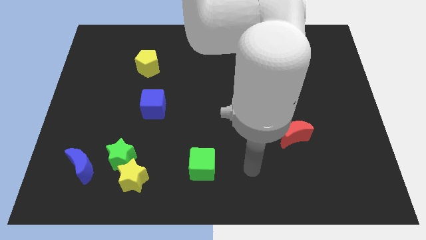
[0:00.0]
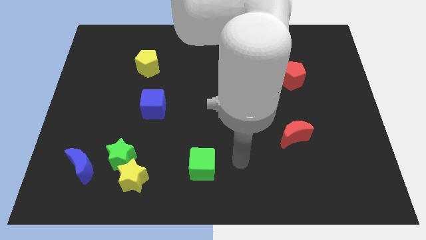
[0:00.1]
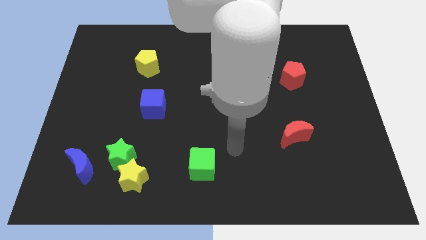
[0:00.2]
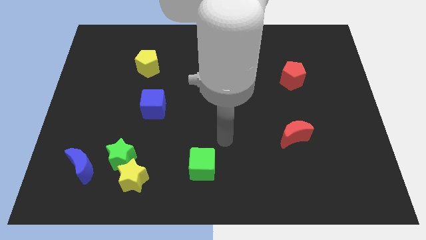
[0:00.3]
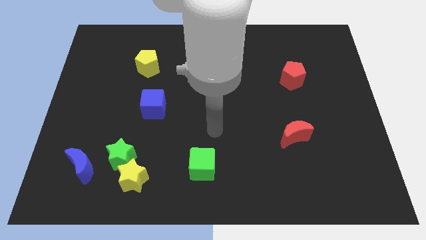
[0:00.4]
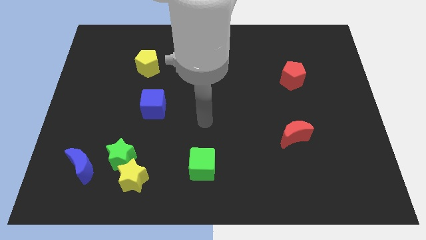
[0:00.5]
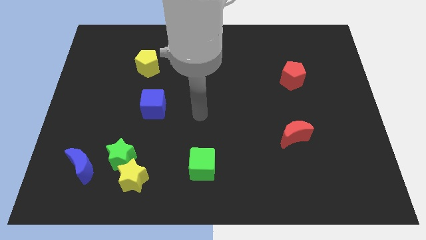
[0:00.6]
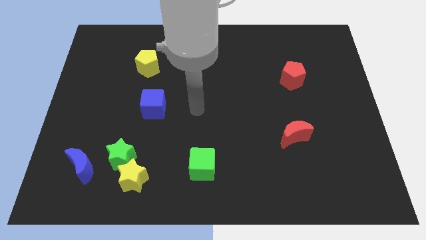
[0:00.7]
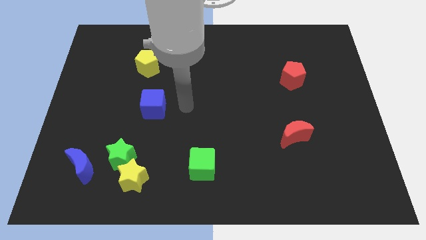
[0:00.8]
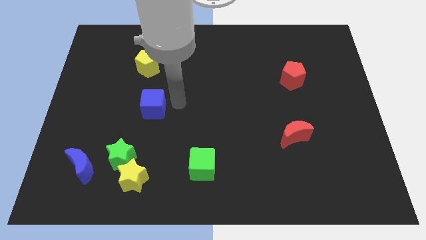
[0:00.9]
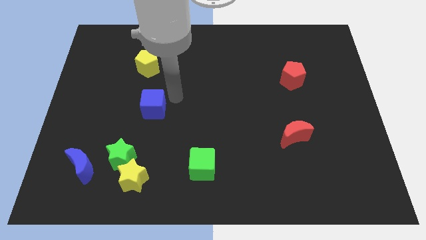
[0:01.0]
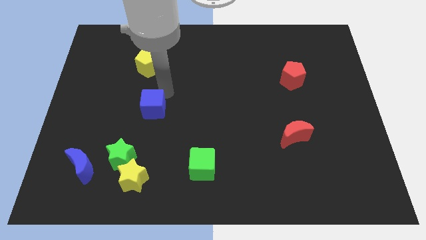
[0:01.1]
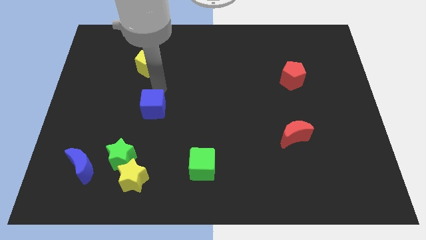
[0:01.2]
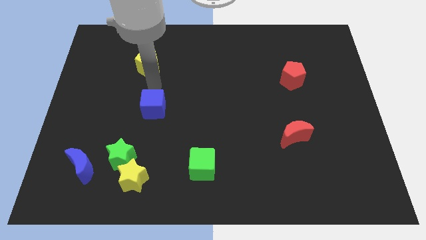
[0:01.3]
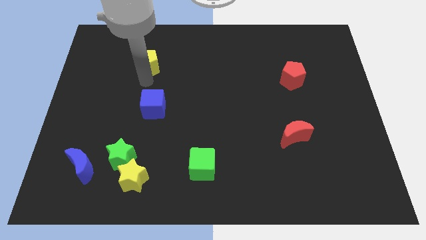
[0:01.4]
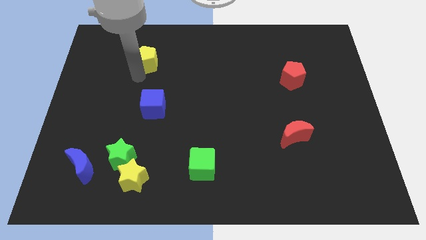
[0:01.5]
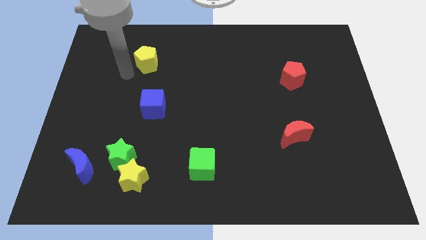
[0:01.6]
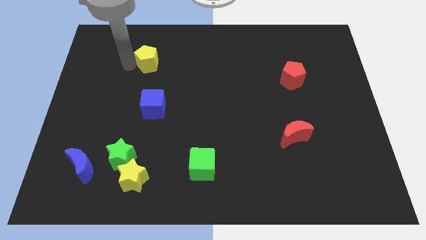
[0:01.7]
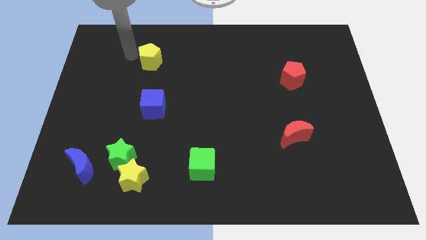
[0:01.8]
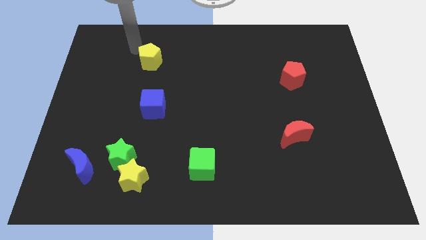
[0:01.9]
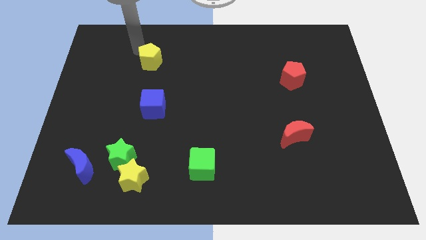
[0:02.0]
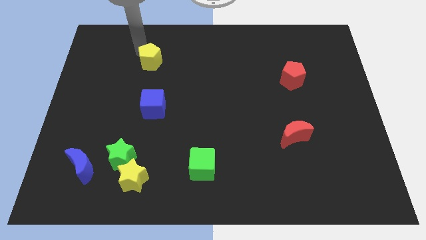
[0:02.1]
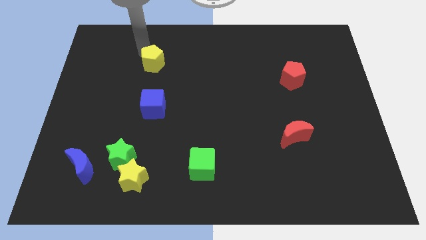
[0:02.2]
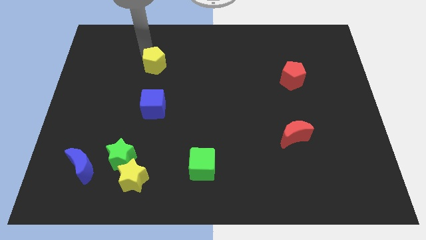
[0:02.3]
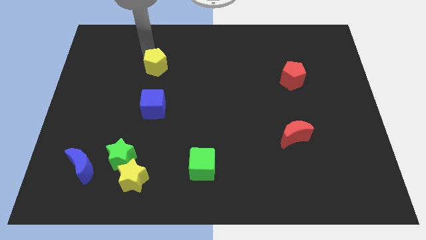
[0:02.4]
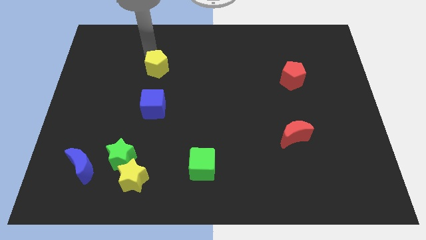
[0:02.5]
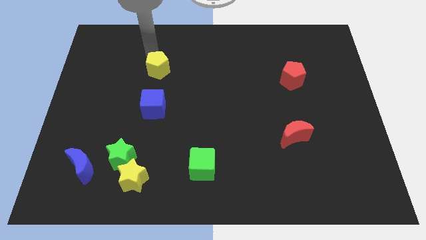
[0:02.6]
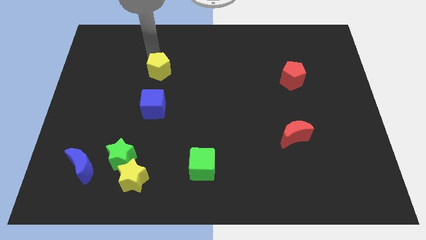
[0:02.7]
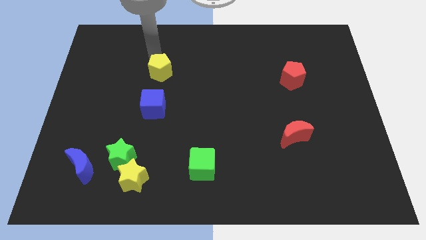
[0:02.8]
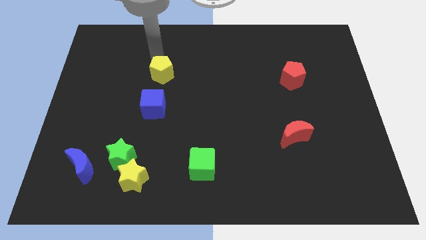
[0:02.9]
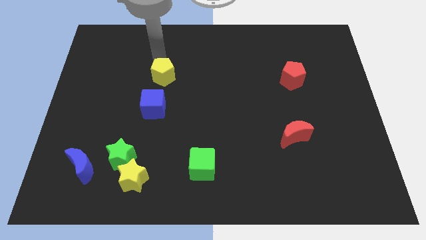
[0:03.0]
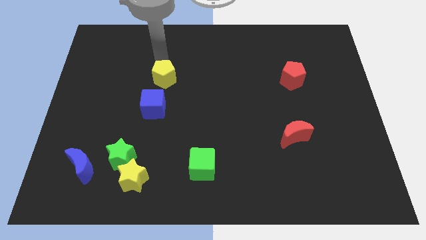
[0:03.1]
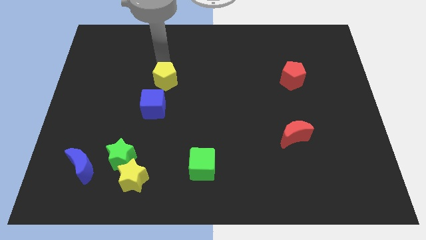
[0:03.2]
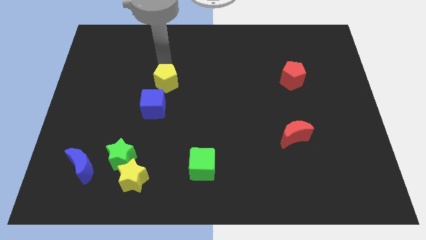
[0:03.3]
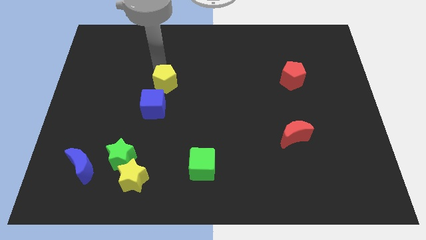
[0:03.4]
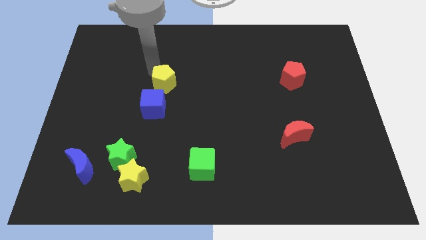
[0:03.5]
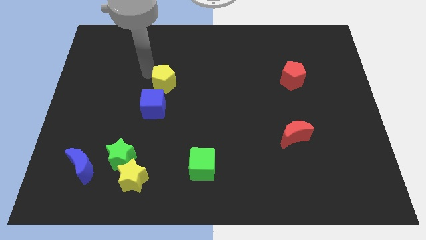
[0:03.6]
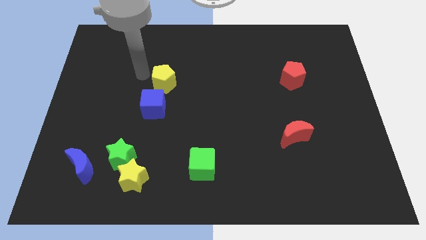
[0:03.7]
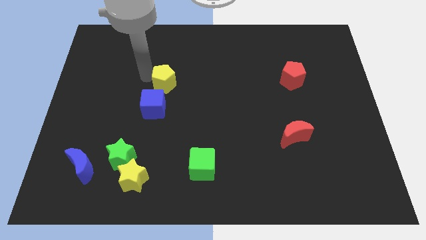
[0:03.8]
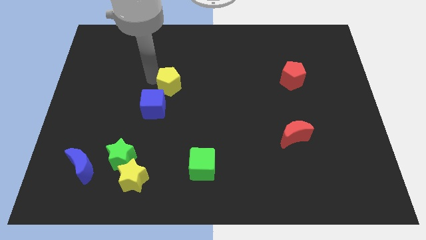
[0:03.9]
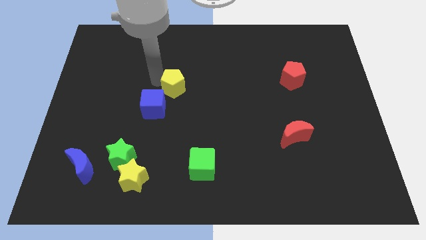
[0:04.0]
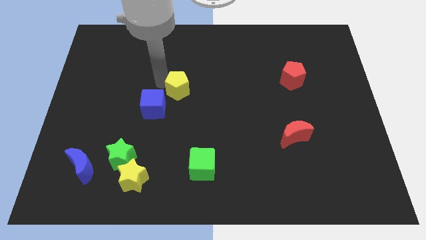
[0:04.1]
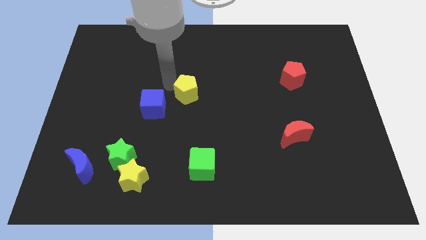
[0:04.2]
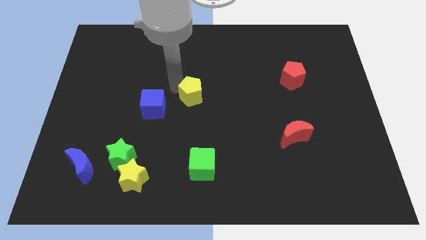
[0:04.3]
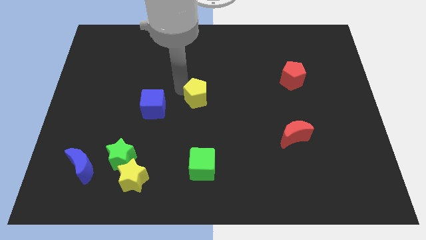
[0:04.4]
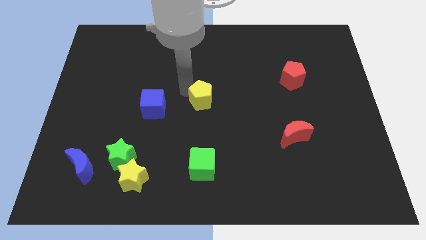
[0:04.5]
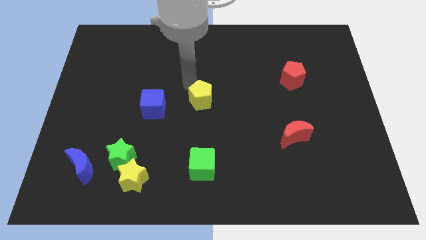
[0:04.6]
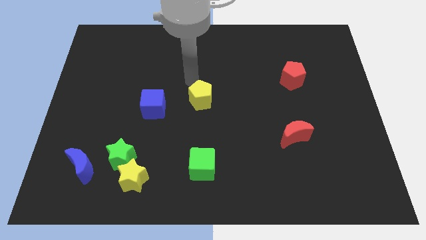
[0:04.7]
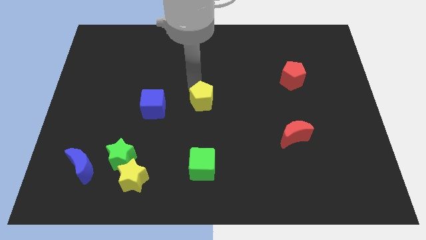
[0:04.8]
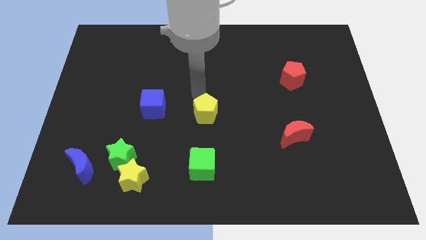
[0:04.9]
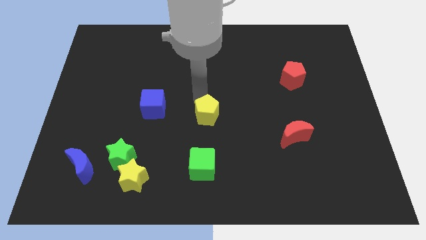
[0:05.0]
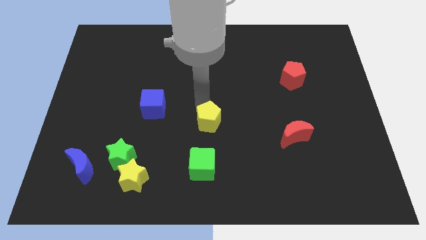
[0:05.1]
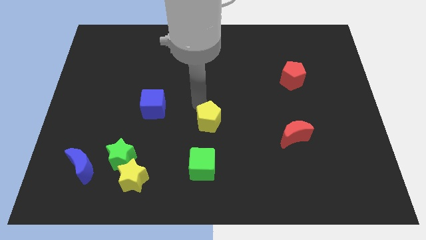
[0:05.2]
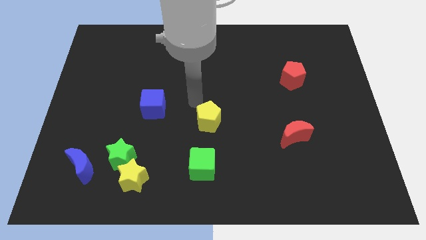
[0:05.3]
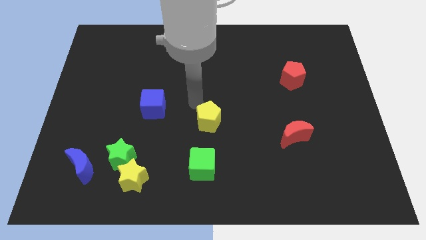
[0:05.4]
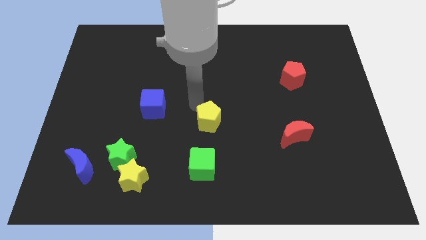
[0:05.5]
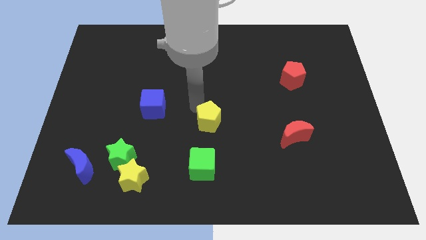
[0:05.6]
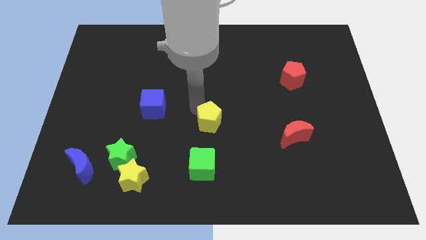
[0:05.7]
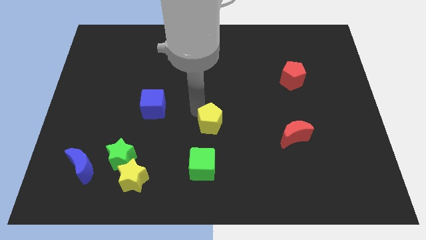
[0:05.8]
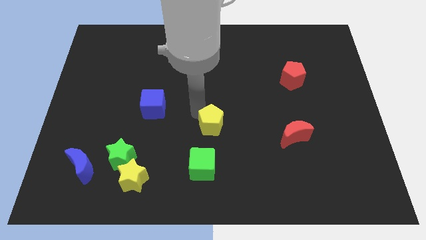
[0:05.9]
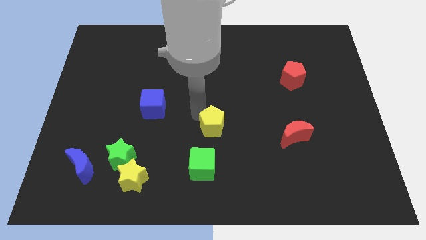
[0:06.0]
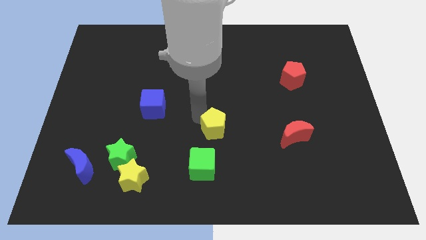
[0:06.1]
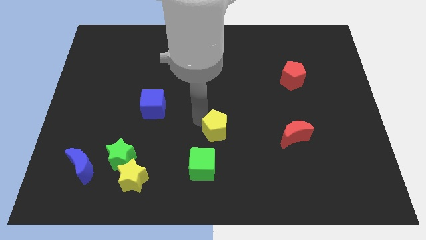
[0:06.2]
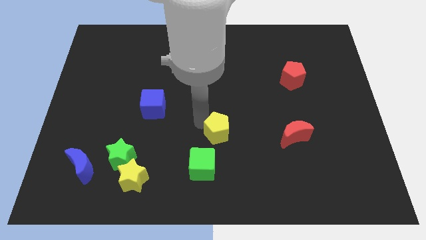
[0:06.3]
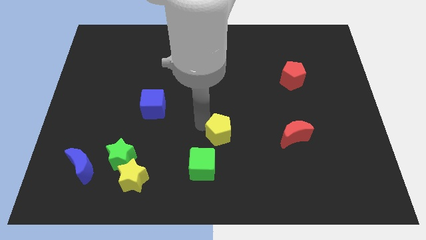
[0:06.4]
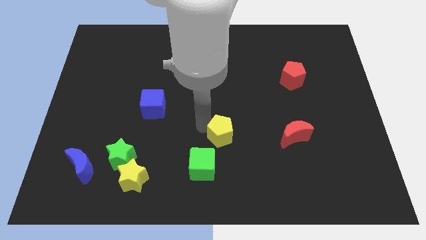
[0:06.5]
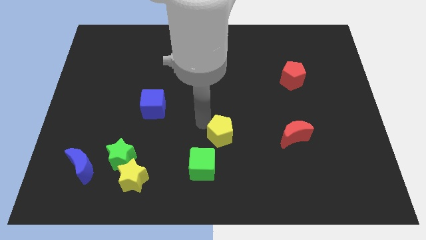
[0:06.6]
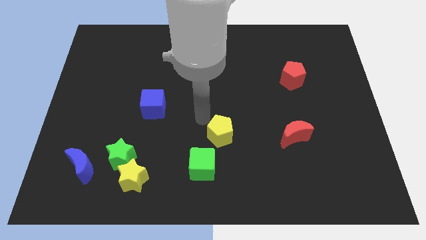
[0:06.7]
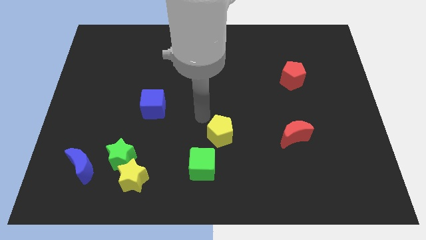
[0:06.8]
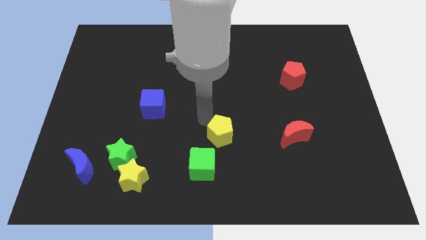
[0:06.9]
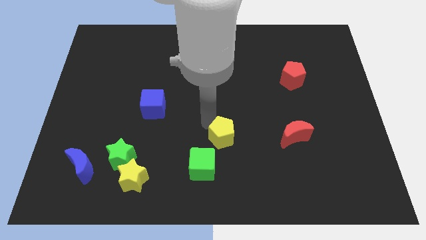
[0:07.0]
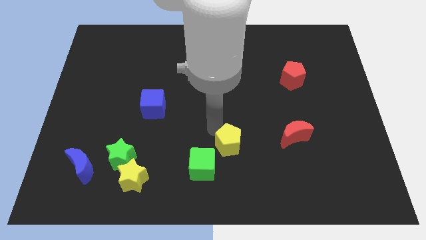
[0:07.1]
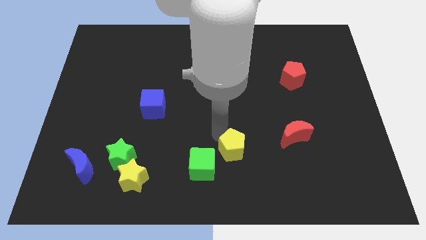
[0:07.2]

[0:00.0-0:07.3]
slide the yellow pentagon to the right of the green cube
